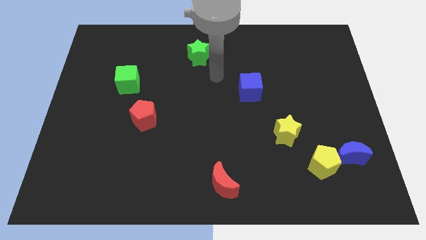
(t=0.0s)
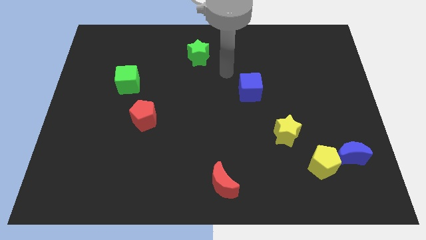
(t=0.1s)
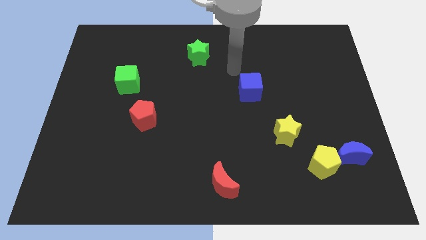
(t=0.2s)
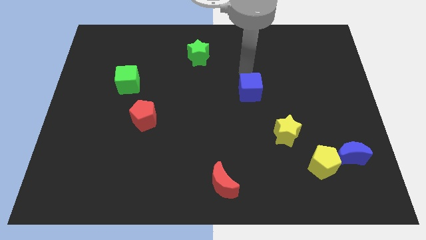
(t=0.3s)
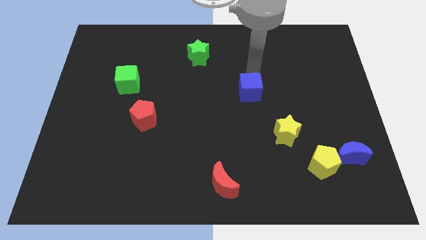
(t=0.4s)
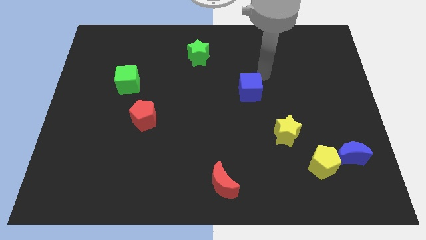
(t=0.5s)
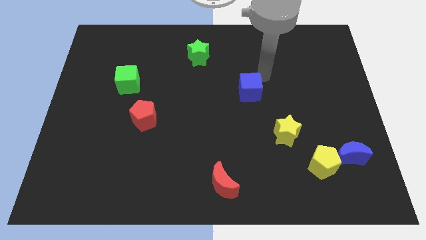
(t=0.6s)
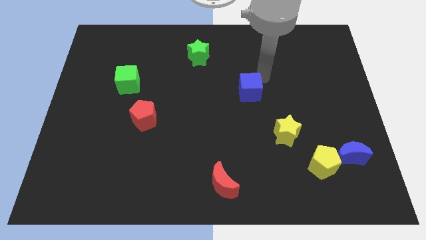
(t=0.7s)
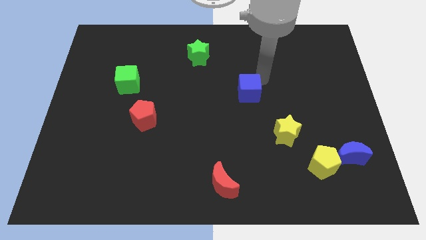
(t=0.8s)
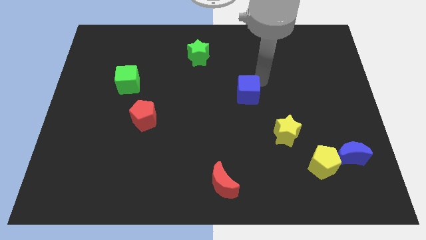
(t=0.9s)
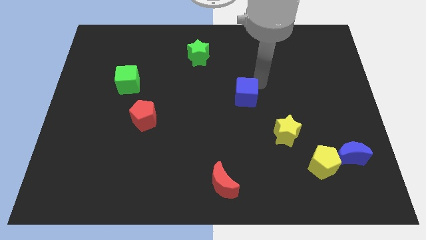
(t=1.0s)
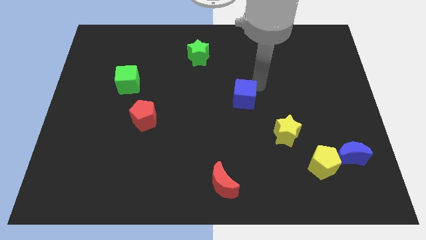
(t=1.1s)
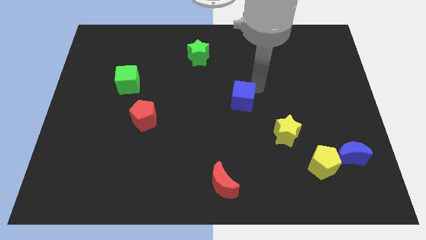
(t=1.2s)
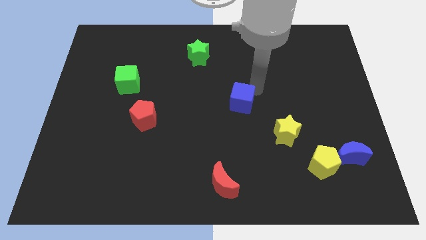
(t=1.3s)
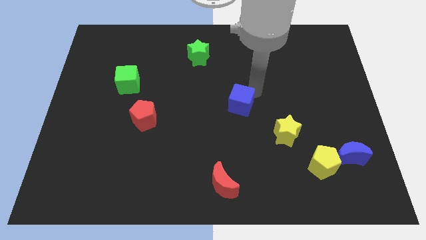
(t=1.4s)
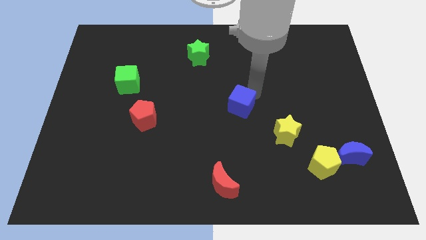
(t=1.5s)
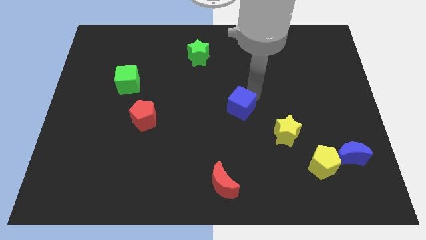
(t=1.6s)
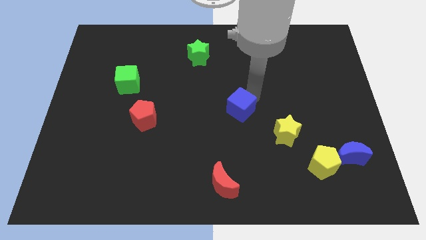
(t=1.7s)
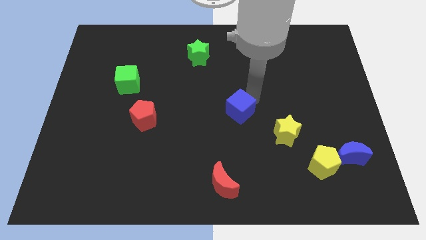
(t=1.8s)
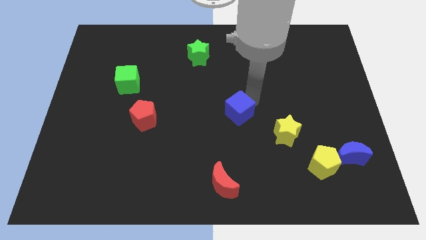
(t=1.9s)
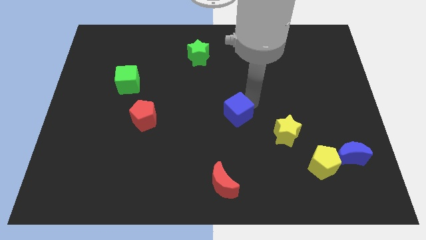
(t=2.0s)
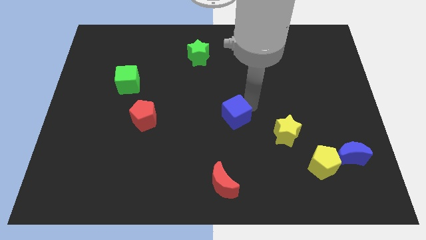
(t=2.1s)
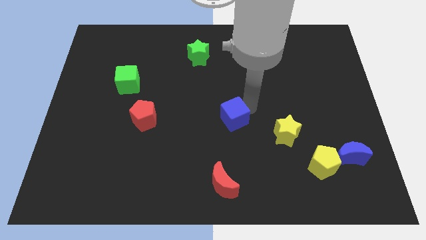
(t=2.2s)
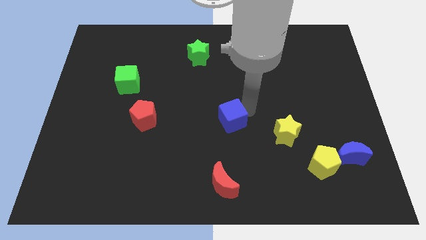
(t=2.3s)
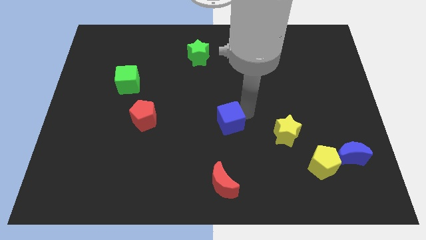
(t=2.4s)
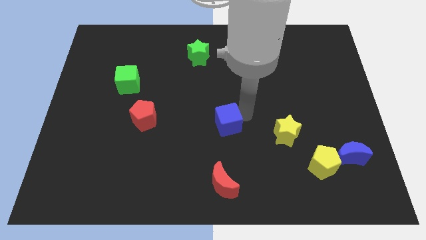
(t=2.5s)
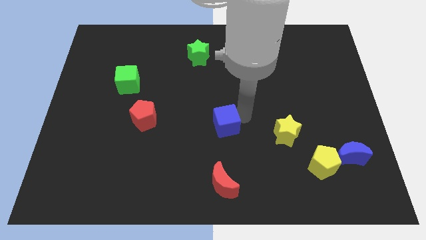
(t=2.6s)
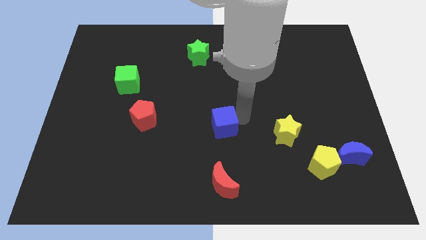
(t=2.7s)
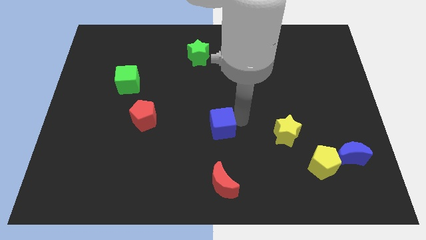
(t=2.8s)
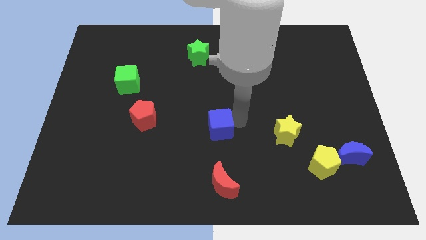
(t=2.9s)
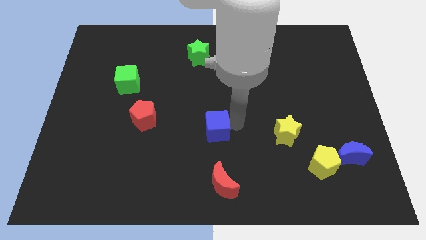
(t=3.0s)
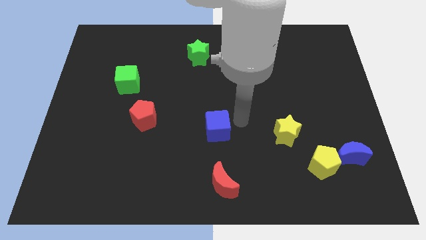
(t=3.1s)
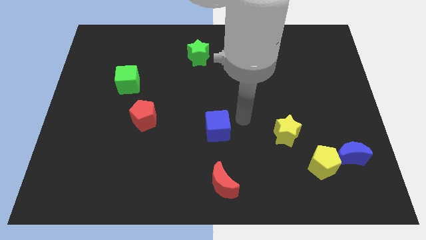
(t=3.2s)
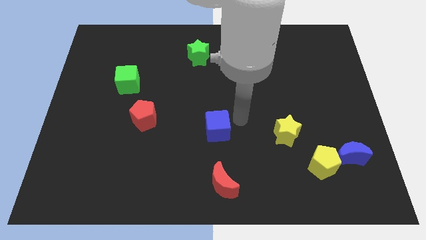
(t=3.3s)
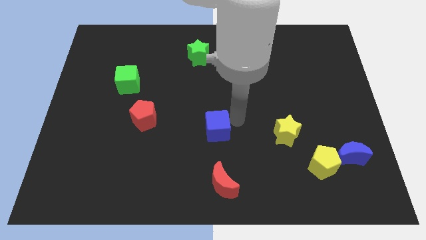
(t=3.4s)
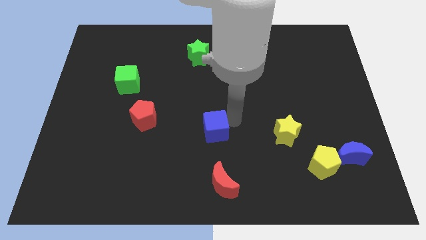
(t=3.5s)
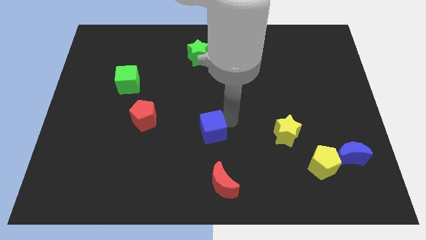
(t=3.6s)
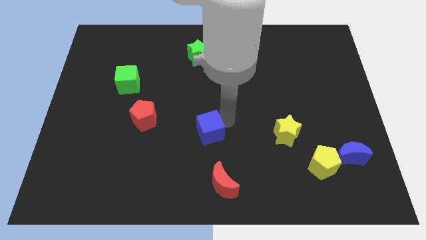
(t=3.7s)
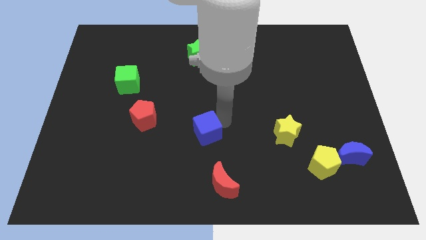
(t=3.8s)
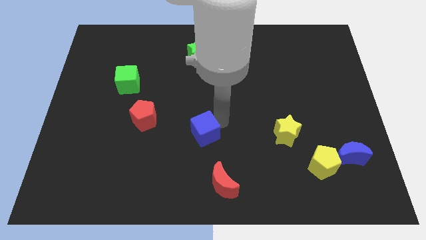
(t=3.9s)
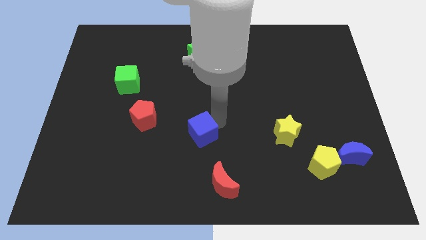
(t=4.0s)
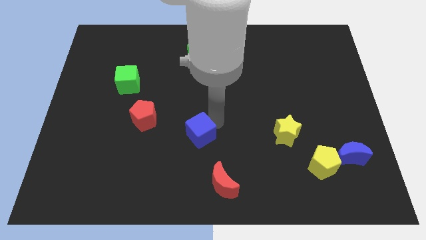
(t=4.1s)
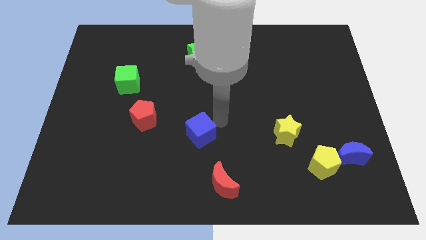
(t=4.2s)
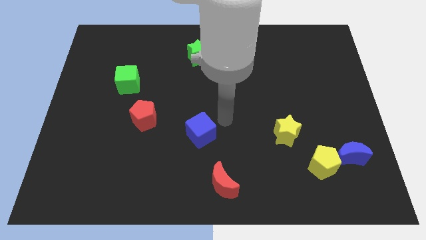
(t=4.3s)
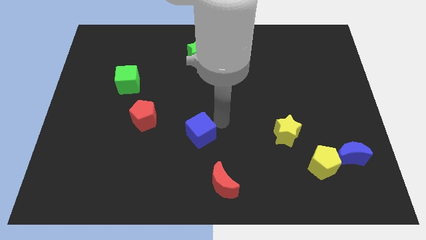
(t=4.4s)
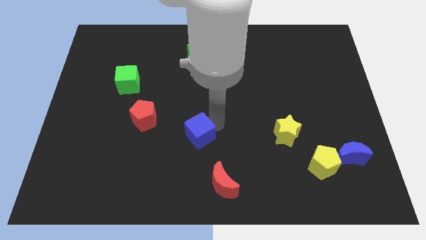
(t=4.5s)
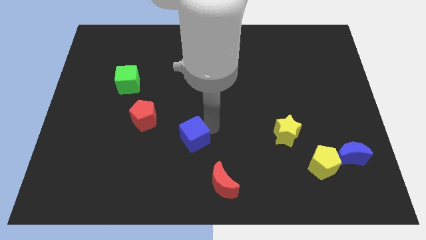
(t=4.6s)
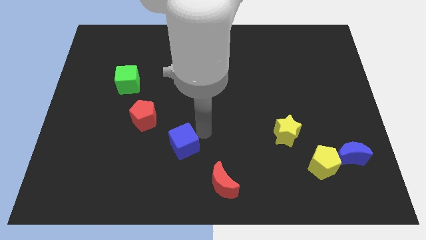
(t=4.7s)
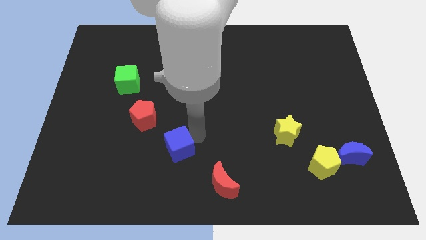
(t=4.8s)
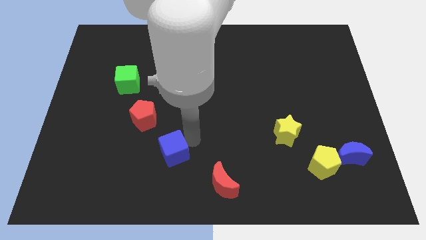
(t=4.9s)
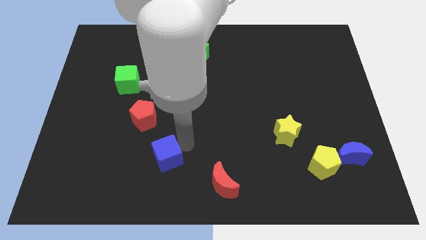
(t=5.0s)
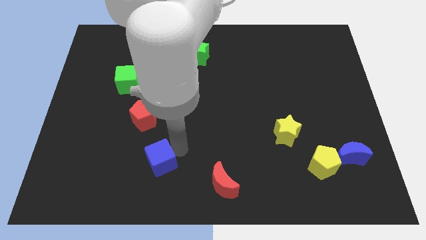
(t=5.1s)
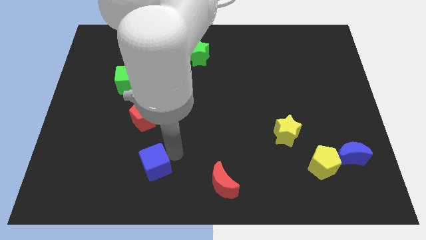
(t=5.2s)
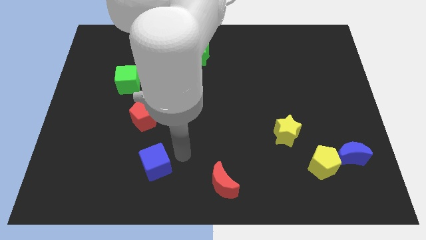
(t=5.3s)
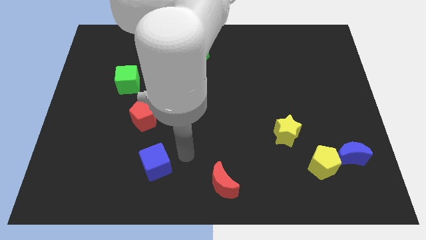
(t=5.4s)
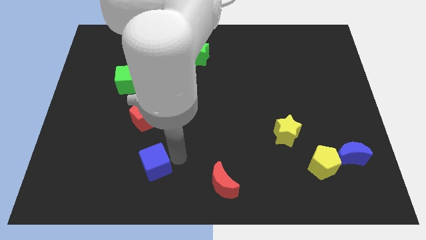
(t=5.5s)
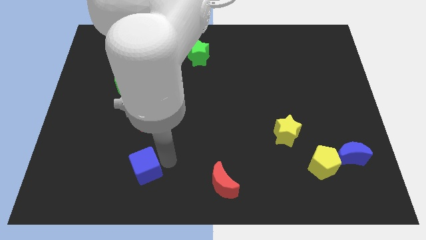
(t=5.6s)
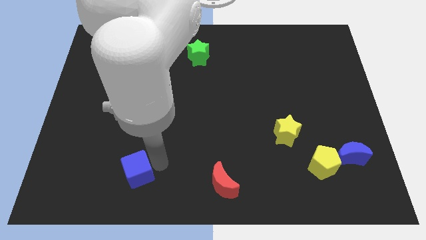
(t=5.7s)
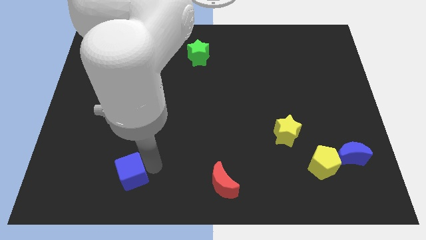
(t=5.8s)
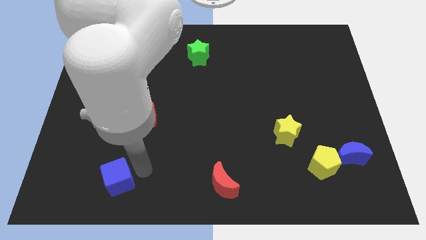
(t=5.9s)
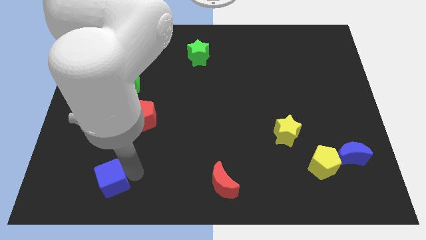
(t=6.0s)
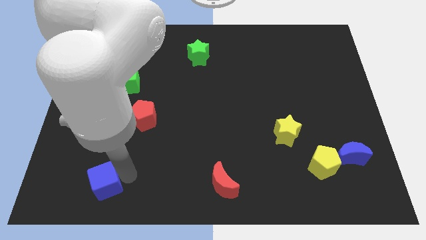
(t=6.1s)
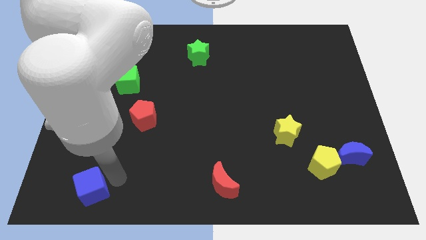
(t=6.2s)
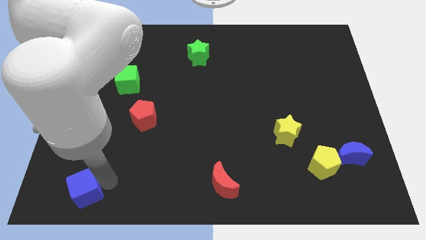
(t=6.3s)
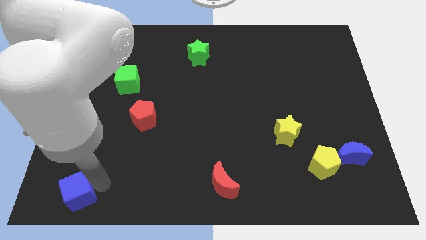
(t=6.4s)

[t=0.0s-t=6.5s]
slide the blue cube to the bottom left

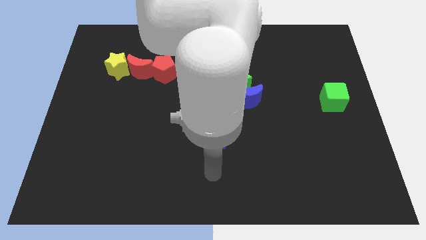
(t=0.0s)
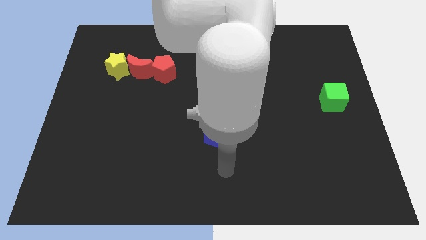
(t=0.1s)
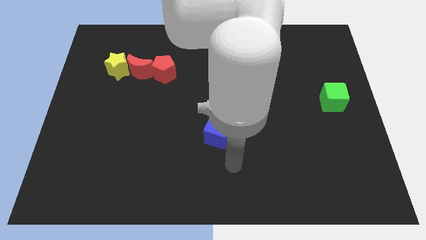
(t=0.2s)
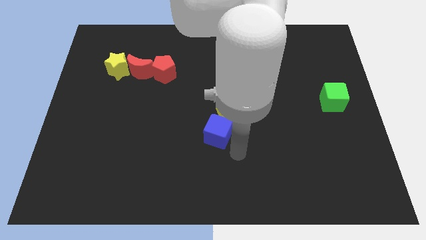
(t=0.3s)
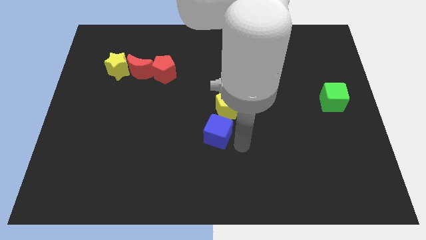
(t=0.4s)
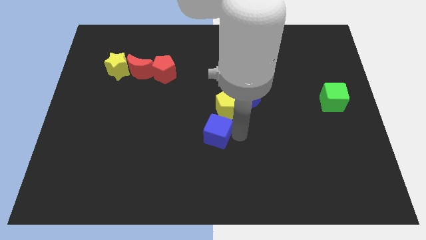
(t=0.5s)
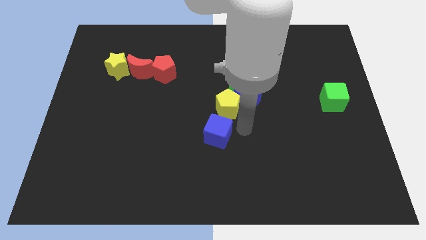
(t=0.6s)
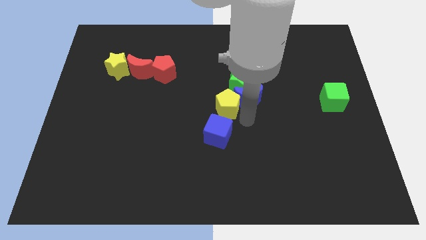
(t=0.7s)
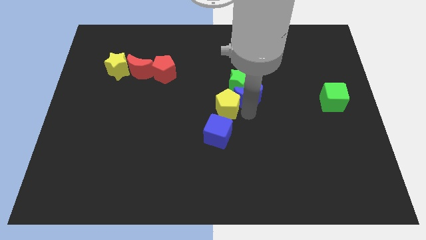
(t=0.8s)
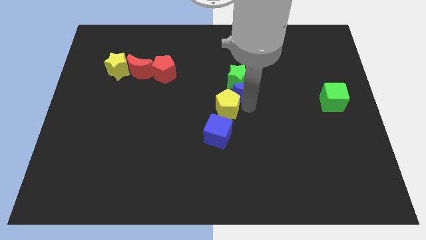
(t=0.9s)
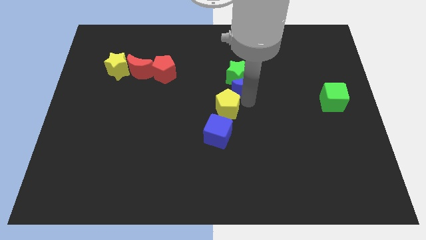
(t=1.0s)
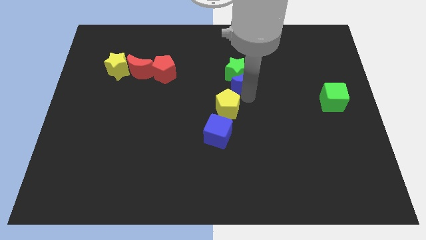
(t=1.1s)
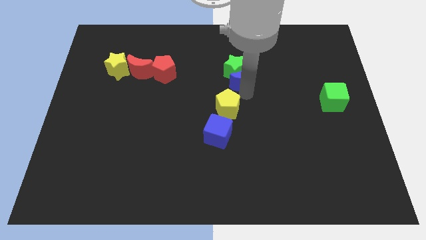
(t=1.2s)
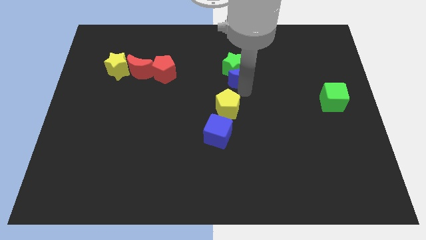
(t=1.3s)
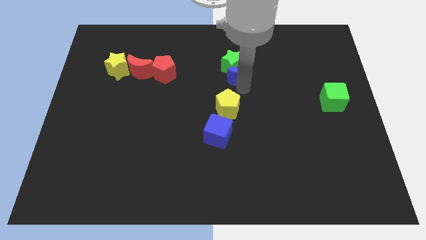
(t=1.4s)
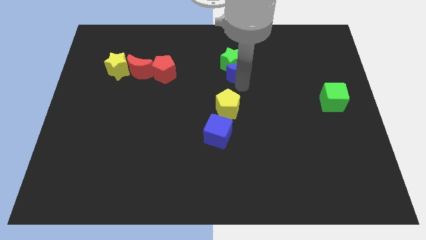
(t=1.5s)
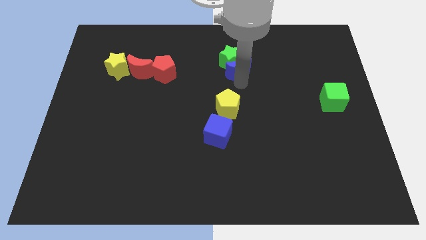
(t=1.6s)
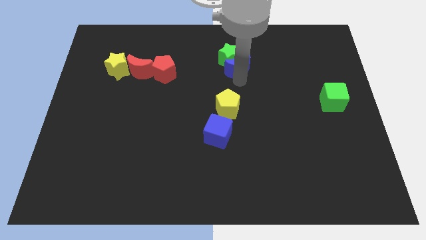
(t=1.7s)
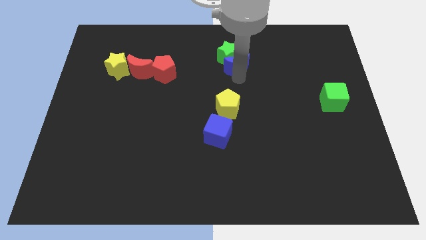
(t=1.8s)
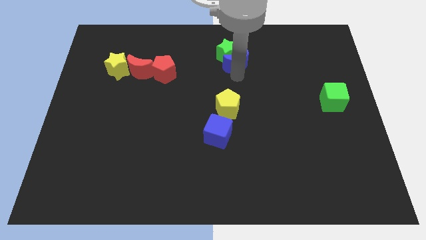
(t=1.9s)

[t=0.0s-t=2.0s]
push the green star to the top

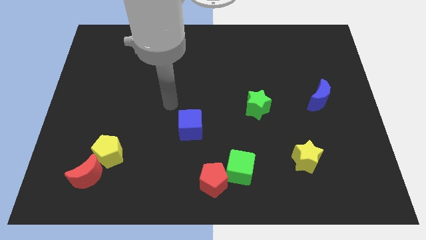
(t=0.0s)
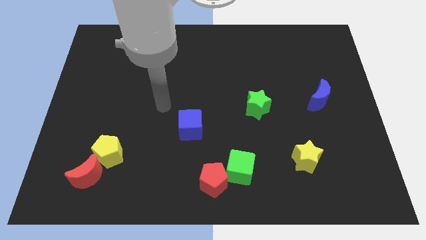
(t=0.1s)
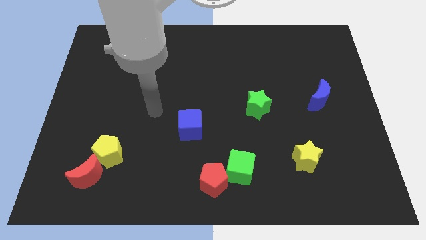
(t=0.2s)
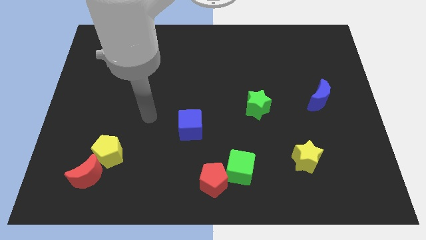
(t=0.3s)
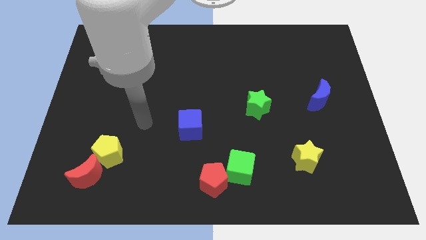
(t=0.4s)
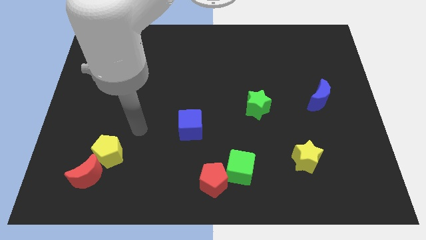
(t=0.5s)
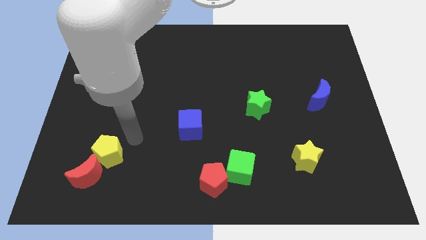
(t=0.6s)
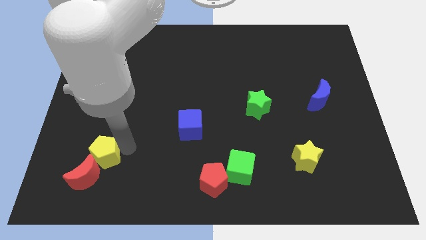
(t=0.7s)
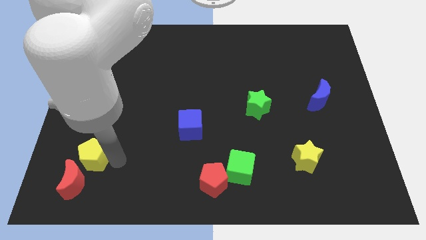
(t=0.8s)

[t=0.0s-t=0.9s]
put the red moon to the bottom left corner
